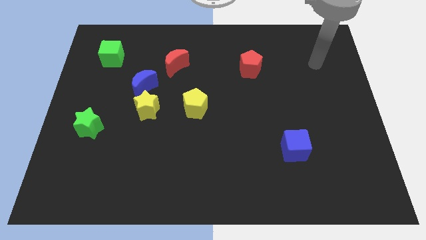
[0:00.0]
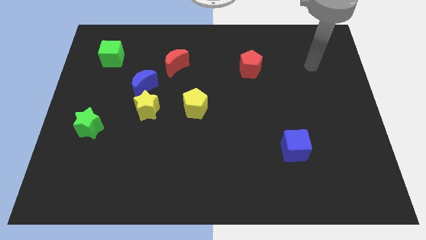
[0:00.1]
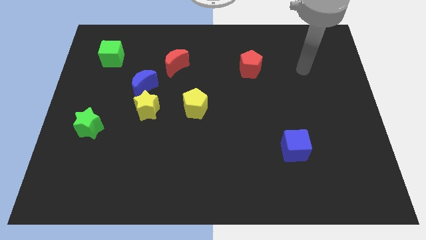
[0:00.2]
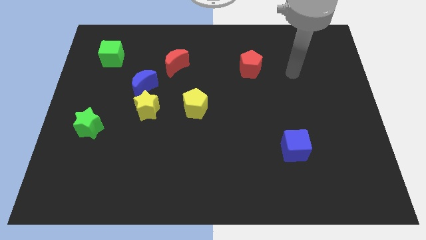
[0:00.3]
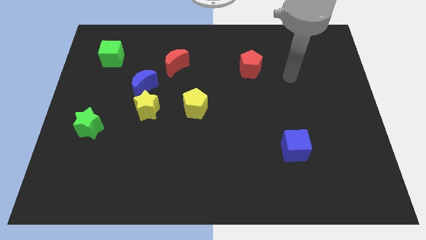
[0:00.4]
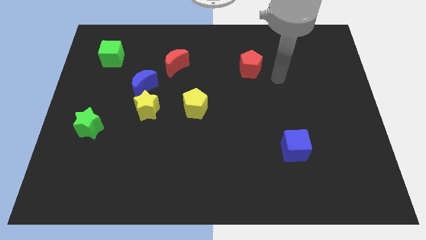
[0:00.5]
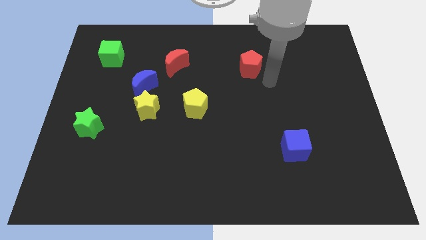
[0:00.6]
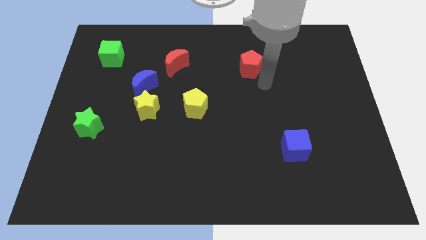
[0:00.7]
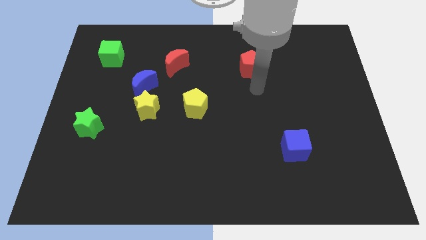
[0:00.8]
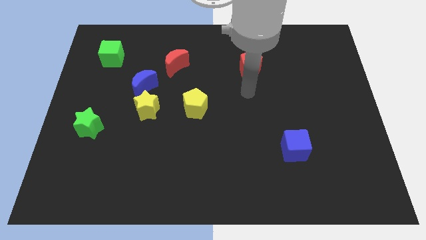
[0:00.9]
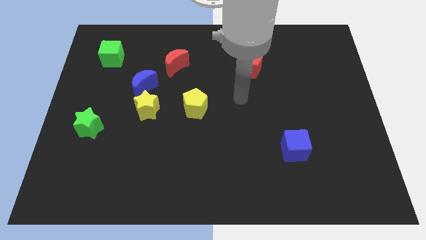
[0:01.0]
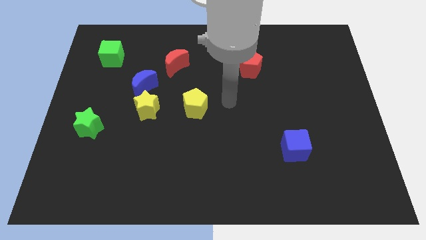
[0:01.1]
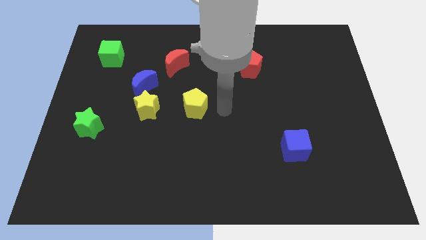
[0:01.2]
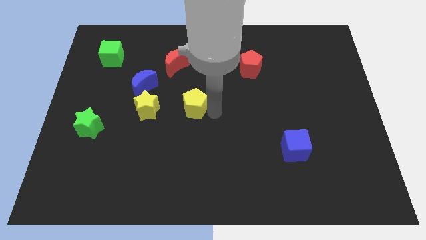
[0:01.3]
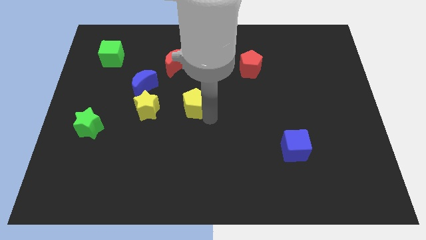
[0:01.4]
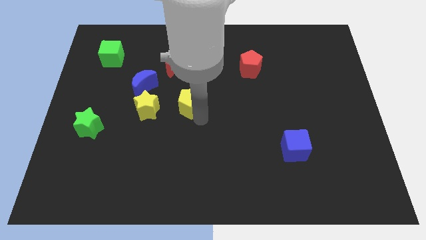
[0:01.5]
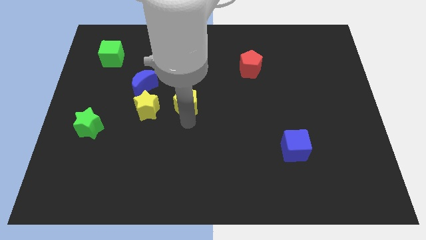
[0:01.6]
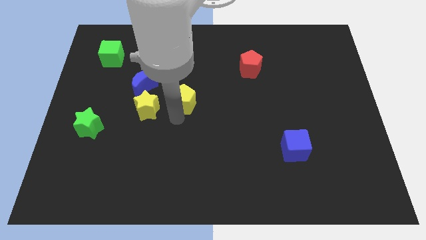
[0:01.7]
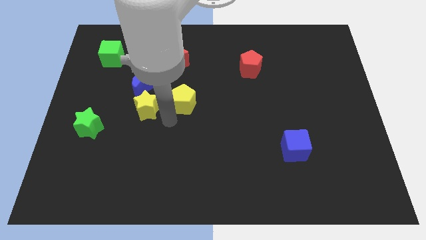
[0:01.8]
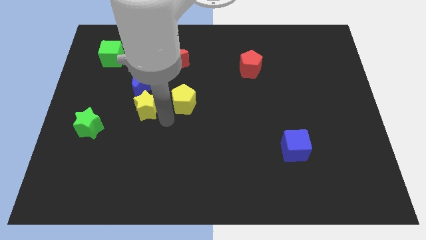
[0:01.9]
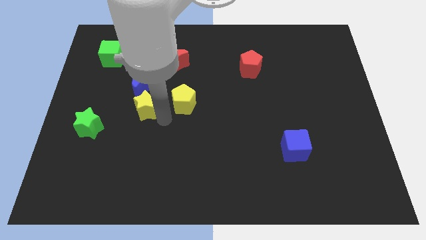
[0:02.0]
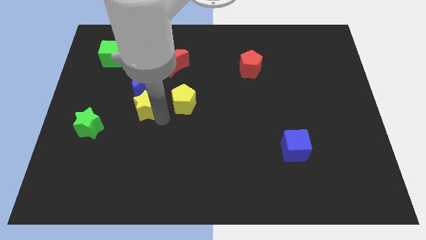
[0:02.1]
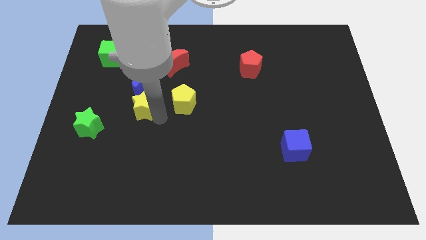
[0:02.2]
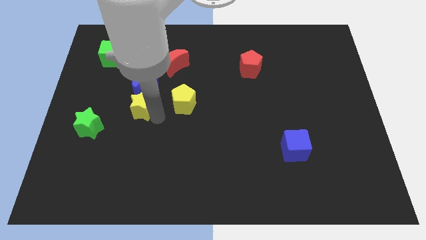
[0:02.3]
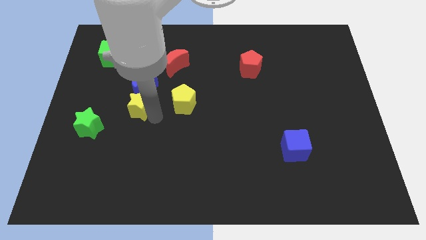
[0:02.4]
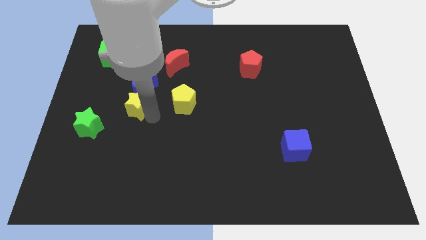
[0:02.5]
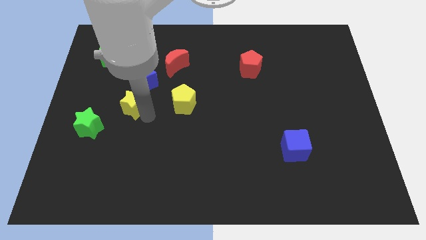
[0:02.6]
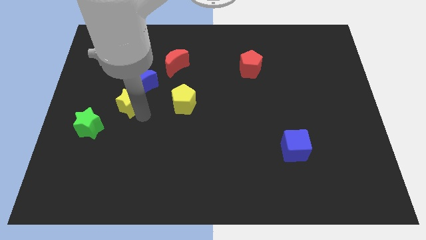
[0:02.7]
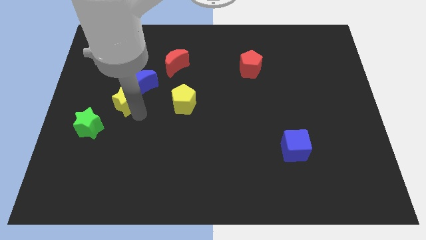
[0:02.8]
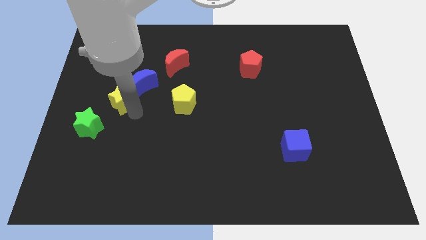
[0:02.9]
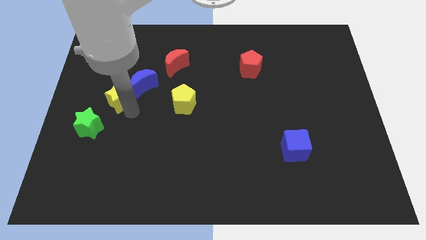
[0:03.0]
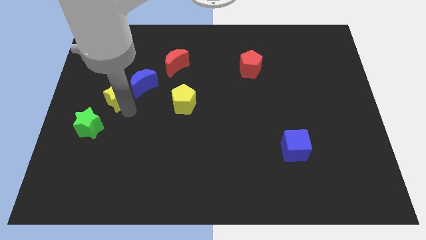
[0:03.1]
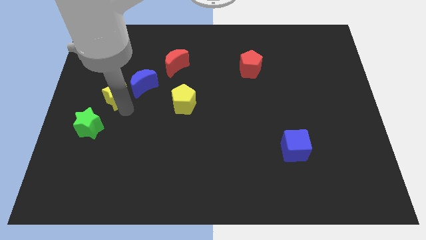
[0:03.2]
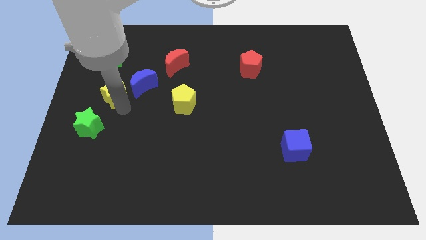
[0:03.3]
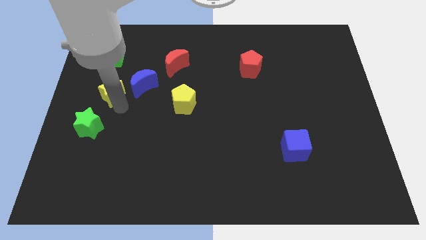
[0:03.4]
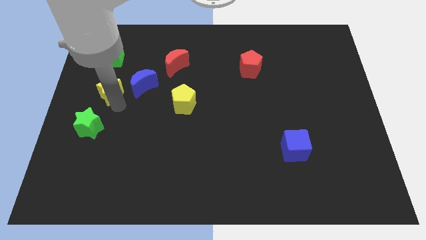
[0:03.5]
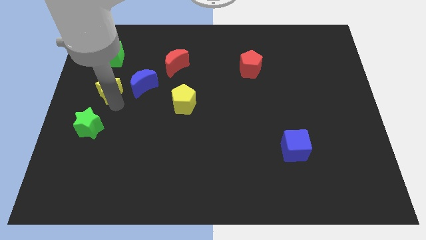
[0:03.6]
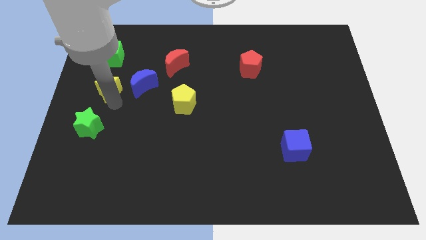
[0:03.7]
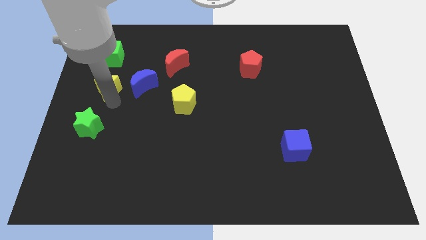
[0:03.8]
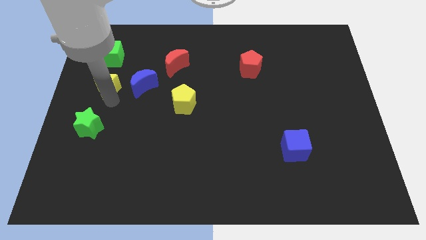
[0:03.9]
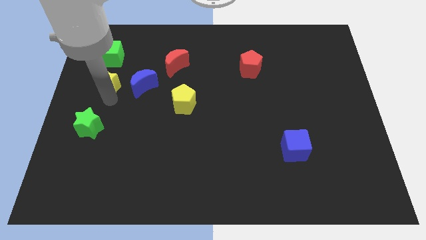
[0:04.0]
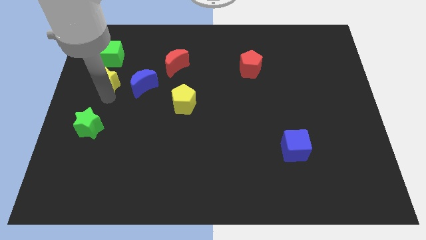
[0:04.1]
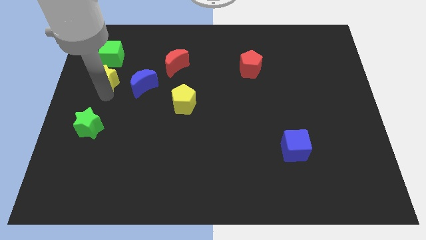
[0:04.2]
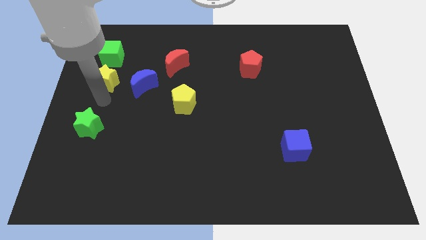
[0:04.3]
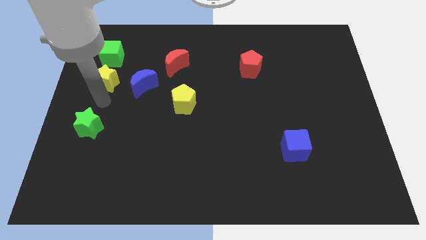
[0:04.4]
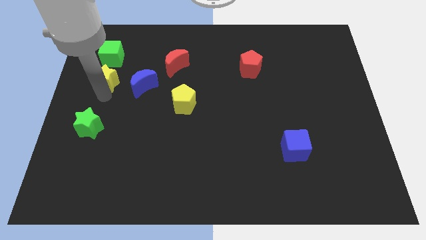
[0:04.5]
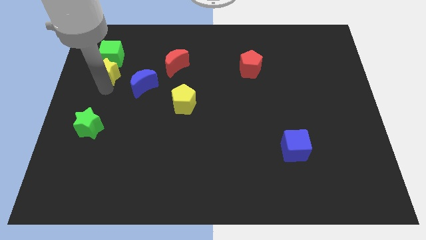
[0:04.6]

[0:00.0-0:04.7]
move the yellow star next to the green cube

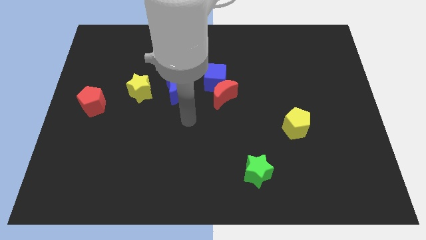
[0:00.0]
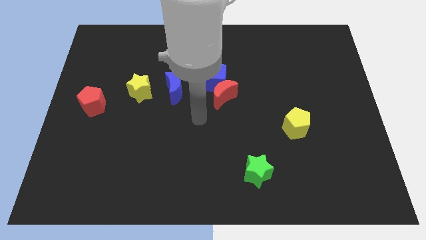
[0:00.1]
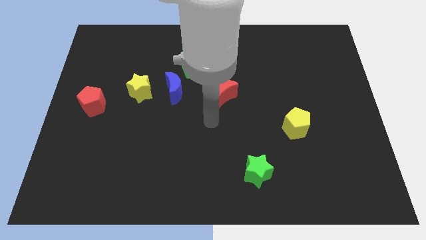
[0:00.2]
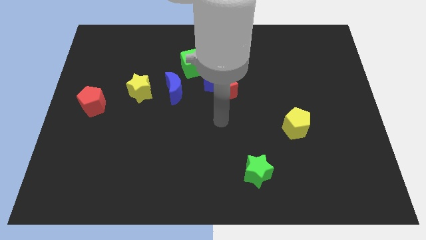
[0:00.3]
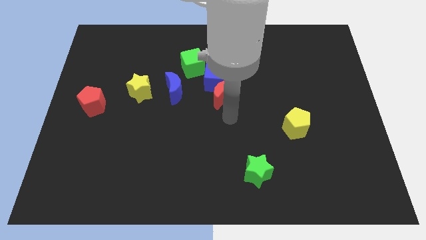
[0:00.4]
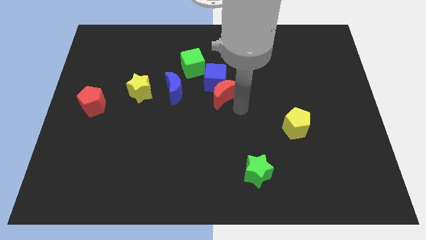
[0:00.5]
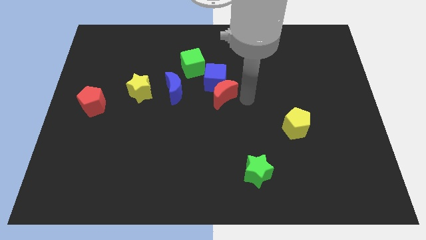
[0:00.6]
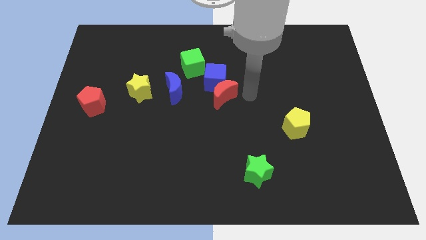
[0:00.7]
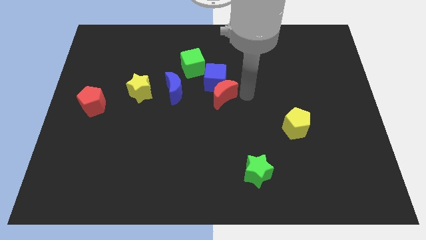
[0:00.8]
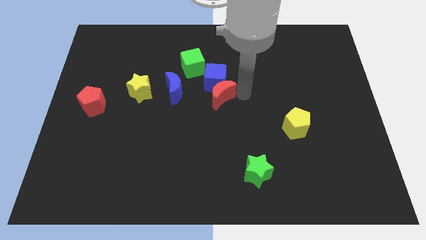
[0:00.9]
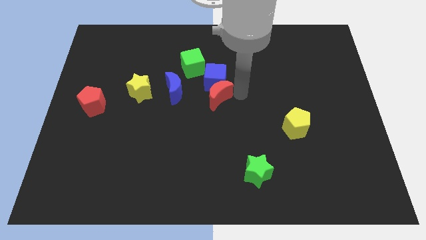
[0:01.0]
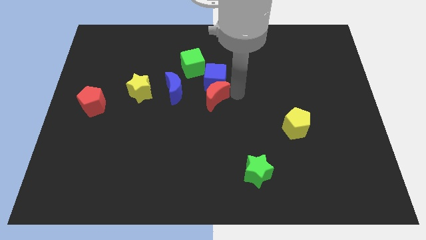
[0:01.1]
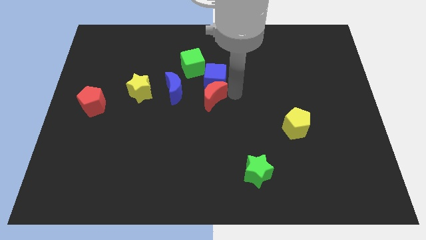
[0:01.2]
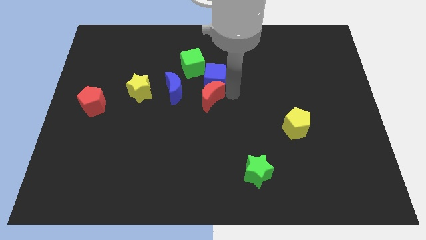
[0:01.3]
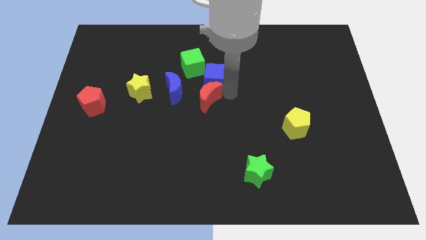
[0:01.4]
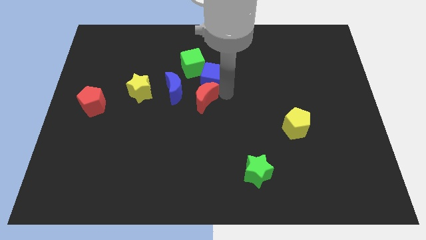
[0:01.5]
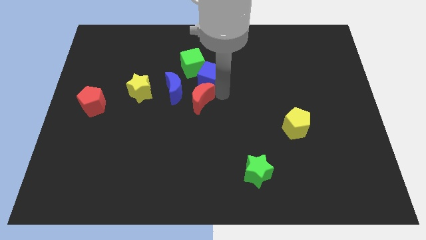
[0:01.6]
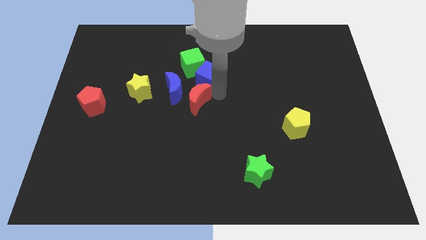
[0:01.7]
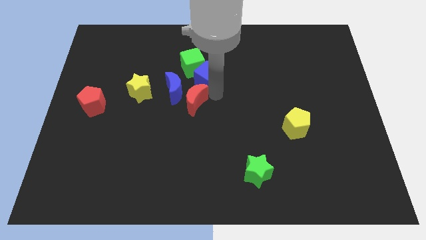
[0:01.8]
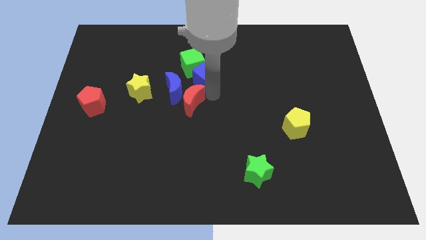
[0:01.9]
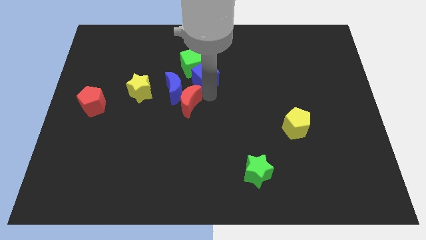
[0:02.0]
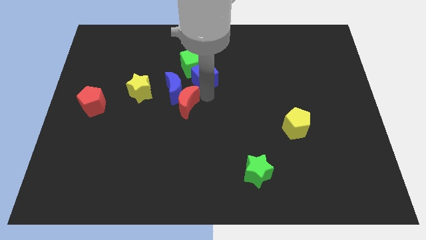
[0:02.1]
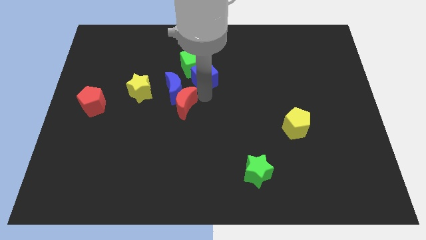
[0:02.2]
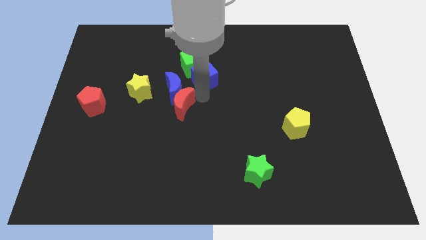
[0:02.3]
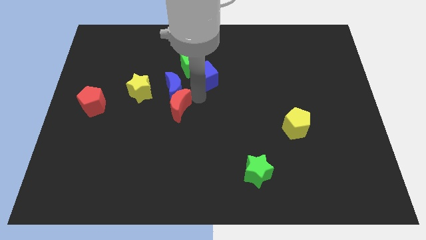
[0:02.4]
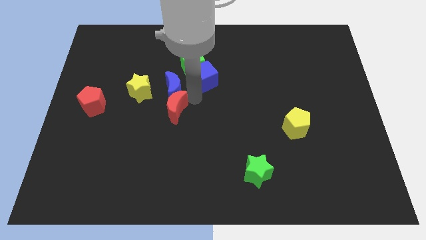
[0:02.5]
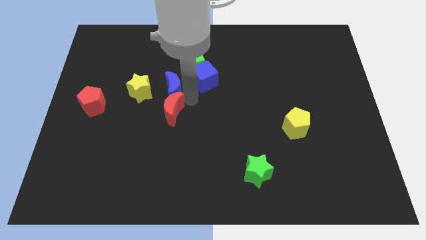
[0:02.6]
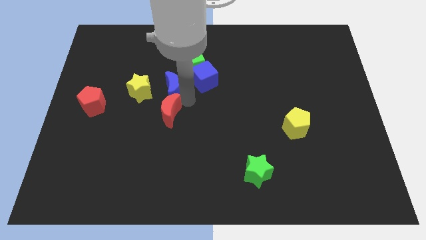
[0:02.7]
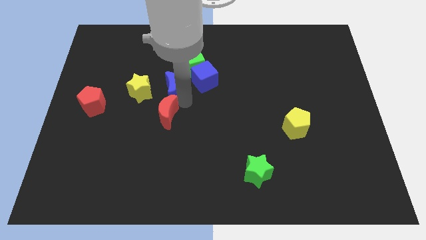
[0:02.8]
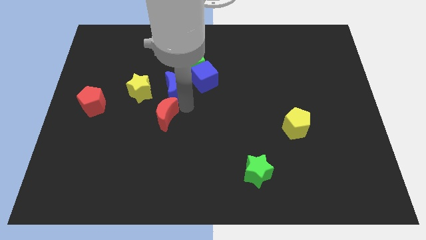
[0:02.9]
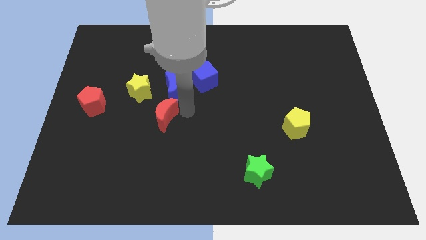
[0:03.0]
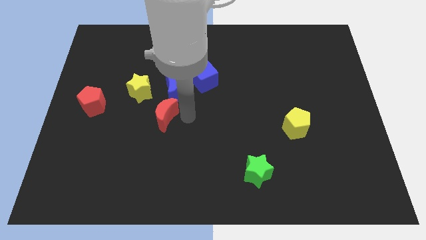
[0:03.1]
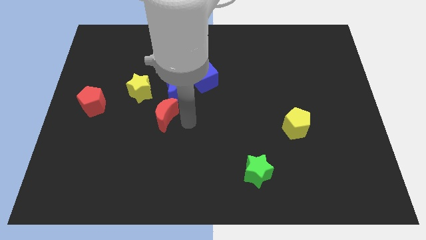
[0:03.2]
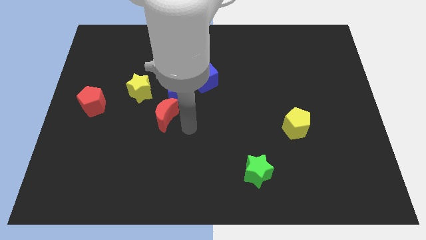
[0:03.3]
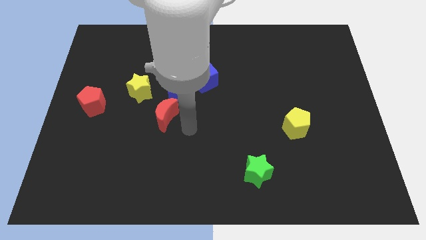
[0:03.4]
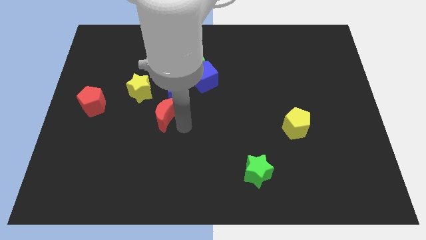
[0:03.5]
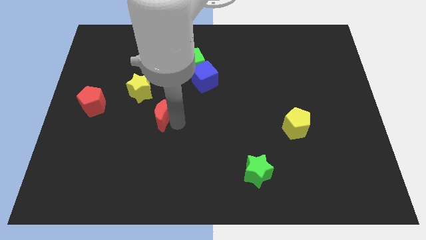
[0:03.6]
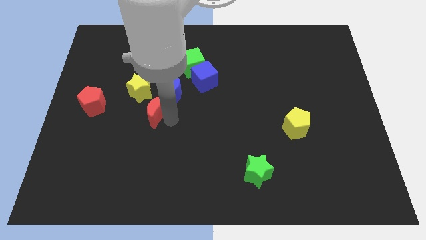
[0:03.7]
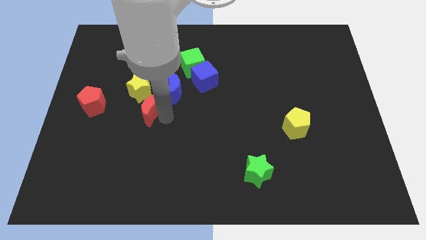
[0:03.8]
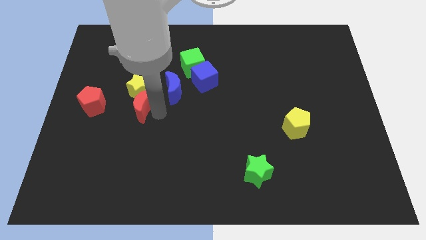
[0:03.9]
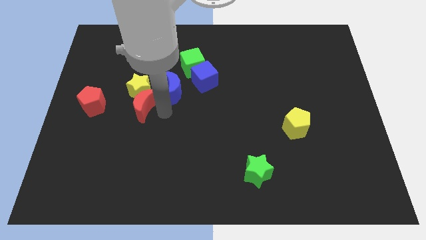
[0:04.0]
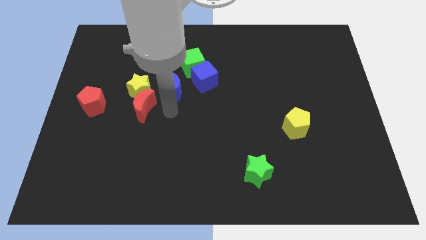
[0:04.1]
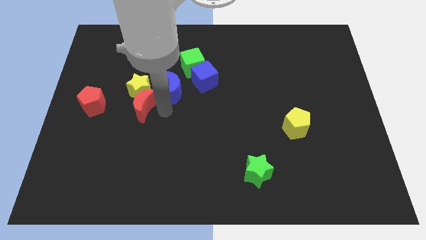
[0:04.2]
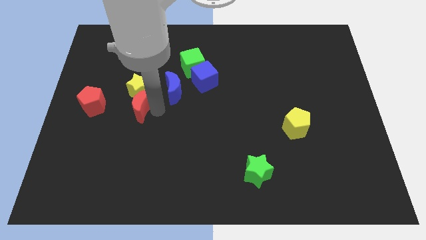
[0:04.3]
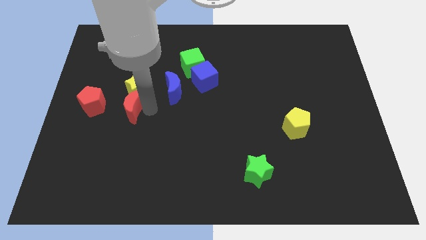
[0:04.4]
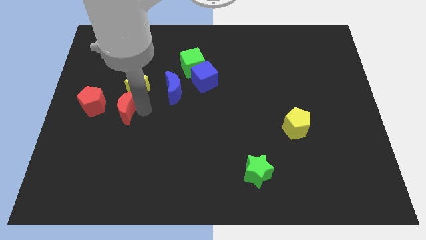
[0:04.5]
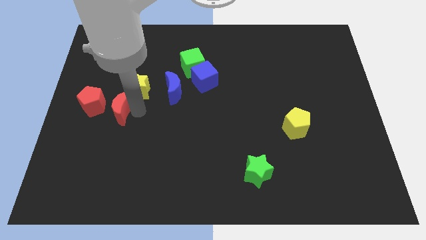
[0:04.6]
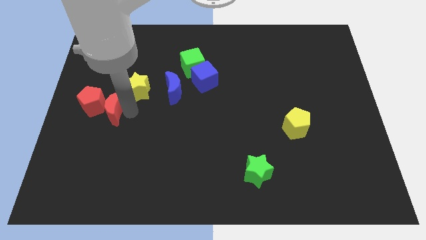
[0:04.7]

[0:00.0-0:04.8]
put the red moon to the red pentagon
